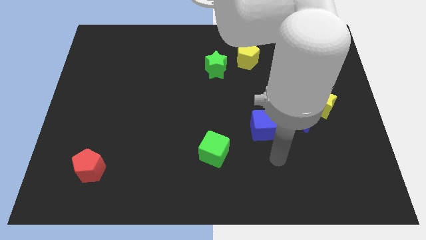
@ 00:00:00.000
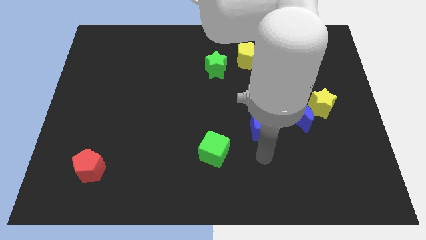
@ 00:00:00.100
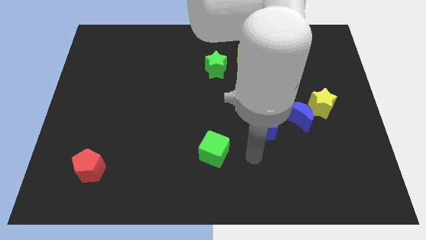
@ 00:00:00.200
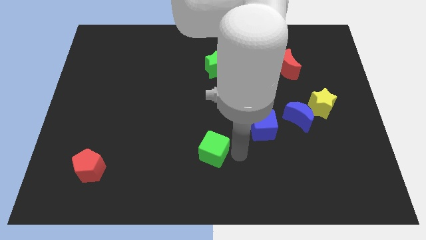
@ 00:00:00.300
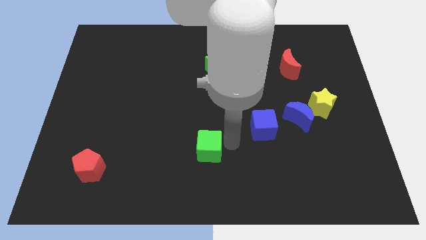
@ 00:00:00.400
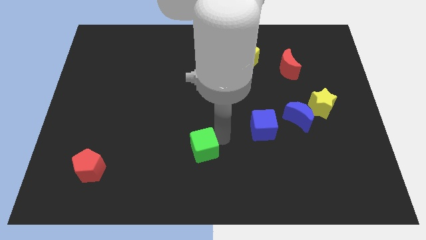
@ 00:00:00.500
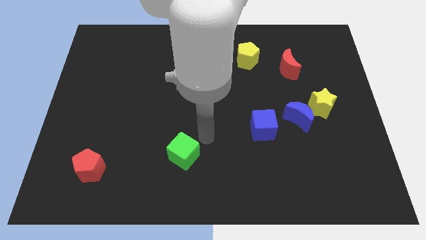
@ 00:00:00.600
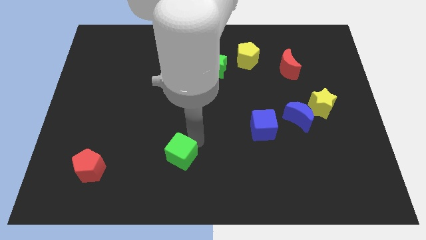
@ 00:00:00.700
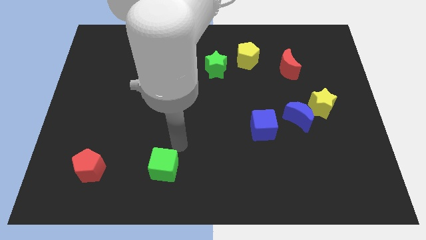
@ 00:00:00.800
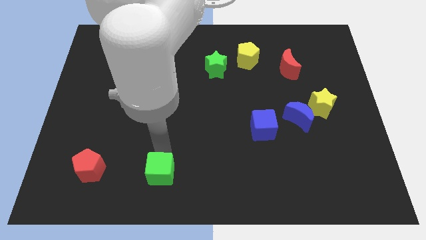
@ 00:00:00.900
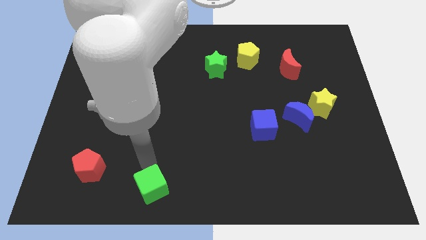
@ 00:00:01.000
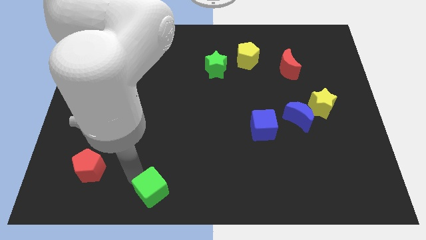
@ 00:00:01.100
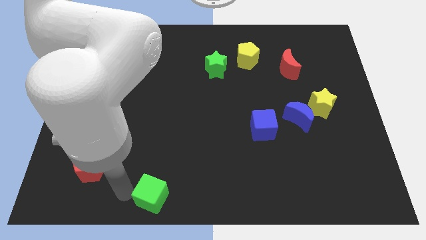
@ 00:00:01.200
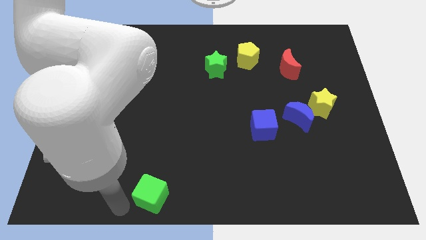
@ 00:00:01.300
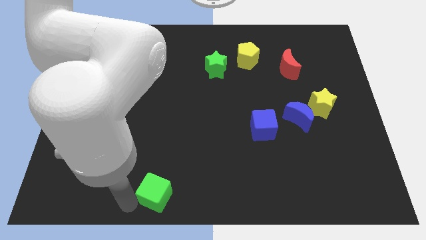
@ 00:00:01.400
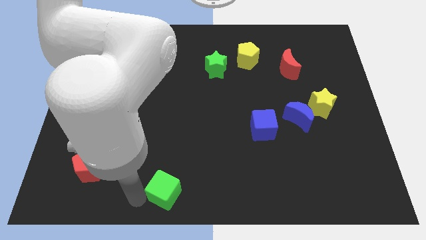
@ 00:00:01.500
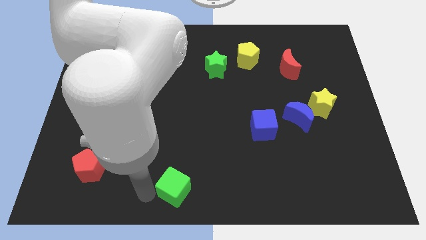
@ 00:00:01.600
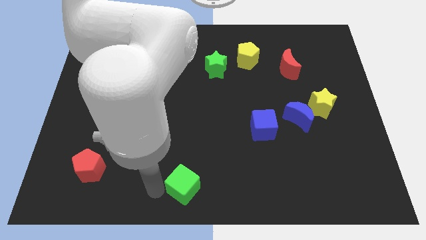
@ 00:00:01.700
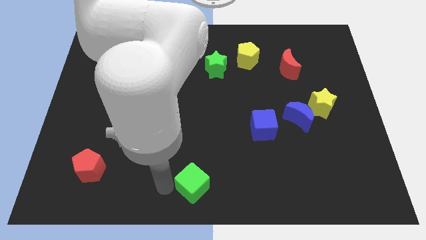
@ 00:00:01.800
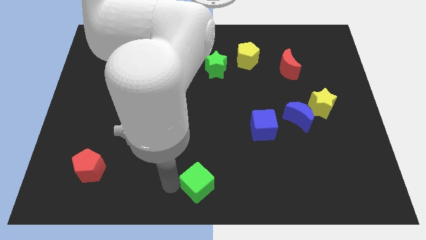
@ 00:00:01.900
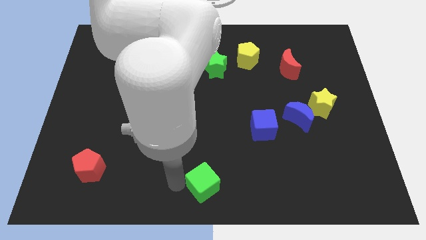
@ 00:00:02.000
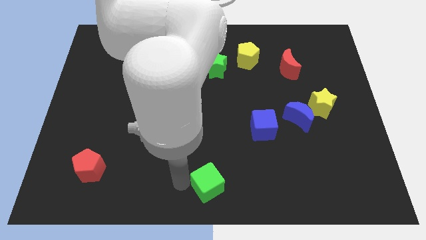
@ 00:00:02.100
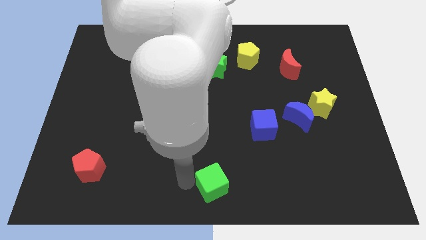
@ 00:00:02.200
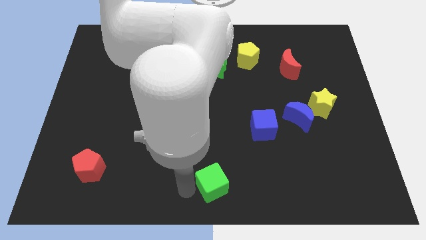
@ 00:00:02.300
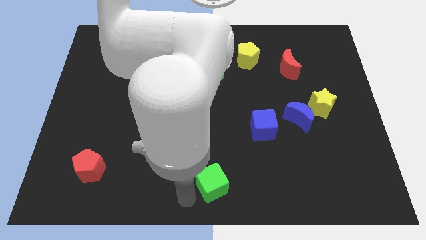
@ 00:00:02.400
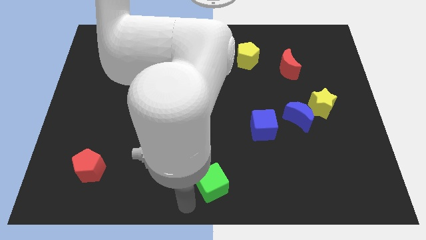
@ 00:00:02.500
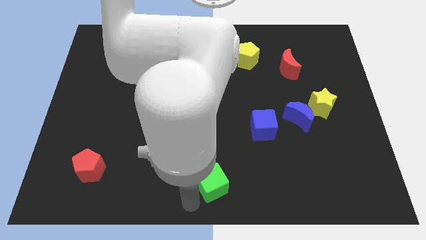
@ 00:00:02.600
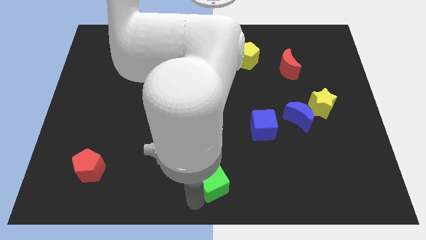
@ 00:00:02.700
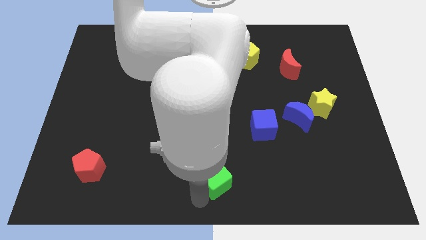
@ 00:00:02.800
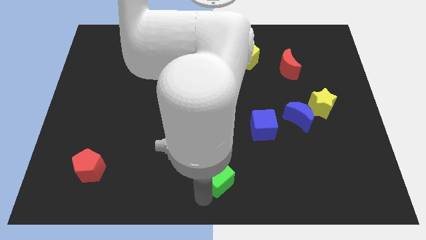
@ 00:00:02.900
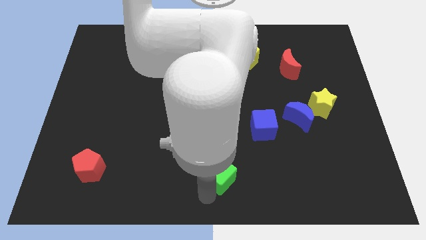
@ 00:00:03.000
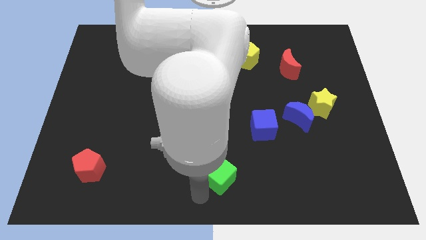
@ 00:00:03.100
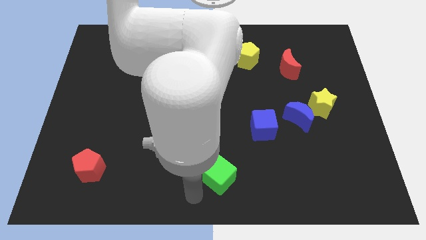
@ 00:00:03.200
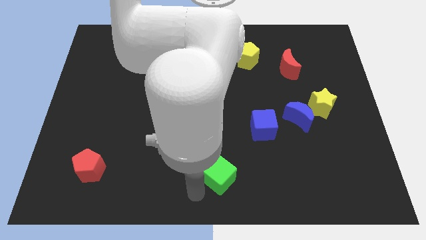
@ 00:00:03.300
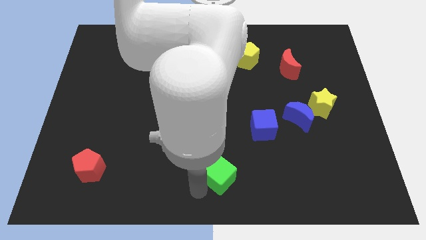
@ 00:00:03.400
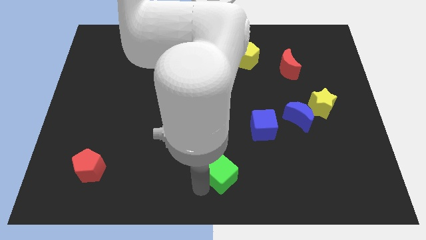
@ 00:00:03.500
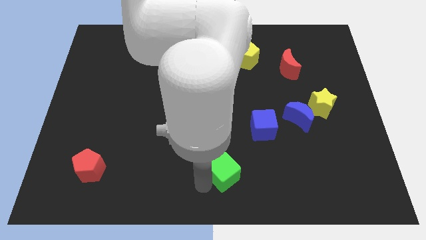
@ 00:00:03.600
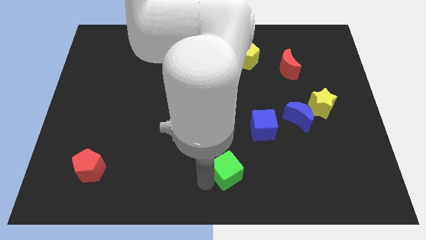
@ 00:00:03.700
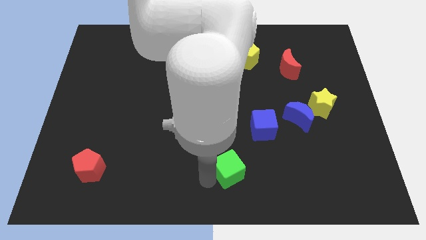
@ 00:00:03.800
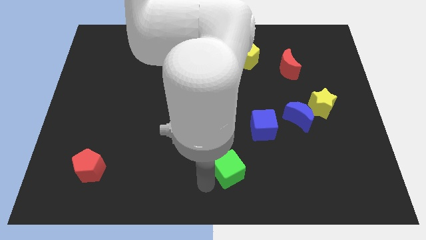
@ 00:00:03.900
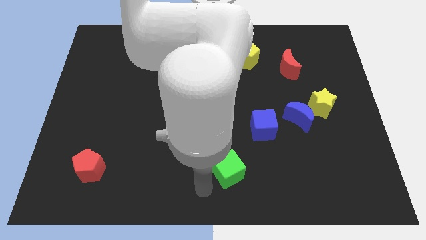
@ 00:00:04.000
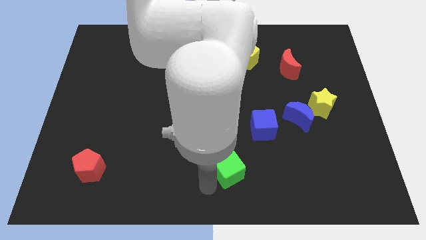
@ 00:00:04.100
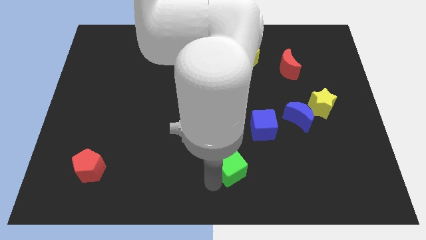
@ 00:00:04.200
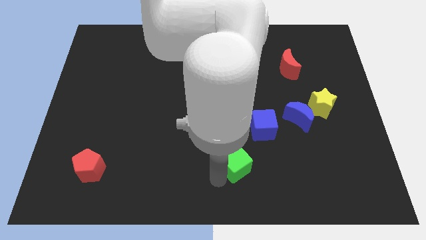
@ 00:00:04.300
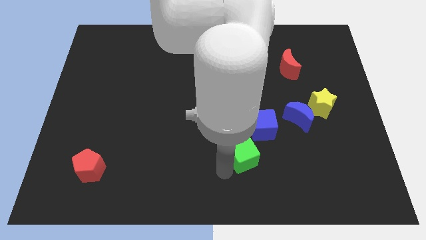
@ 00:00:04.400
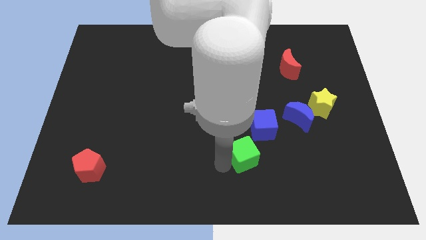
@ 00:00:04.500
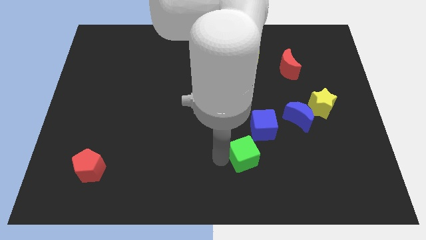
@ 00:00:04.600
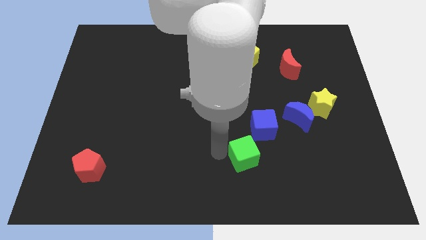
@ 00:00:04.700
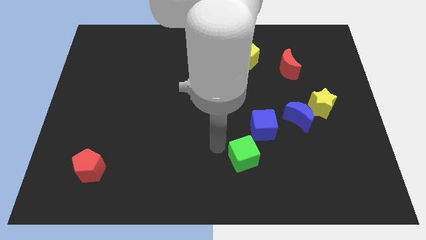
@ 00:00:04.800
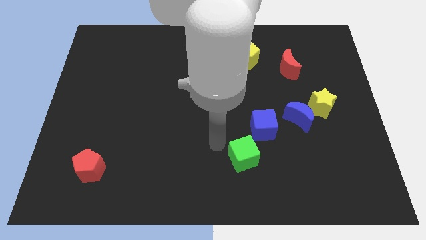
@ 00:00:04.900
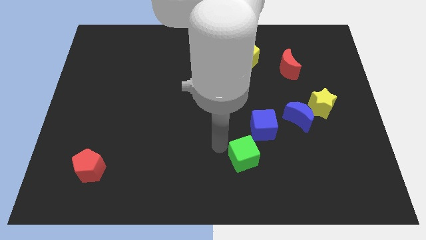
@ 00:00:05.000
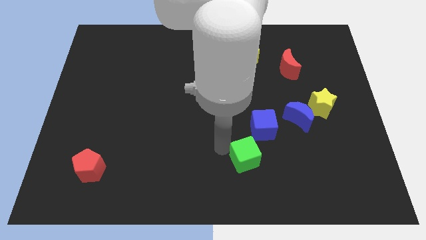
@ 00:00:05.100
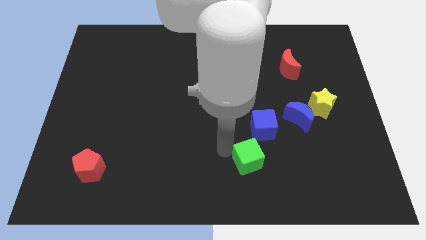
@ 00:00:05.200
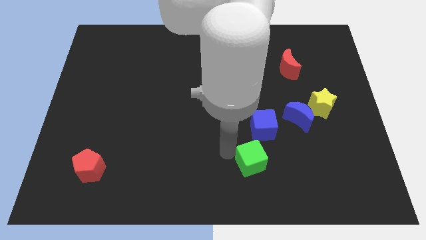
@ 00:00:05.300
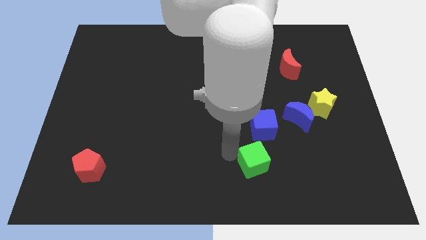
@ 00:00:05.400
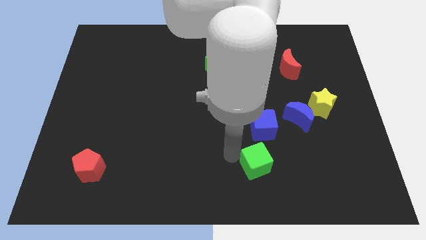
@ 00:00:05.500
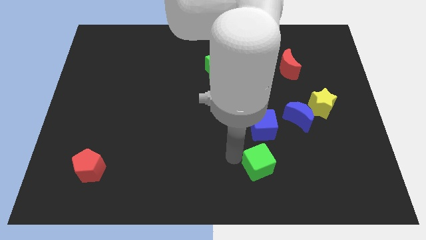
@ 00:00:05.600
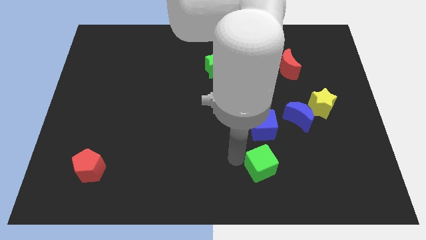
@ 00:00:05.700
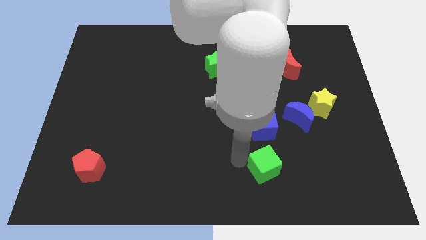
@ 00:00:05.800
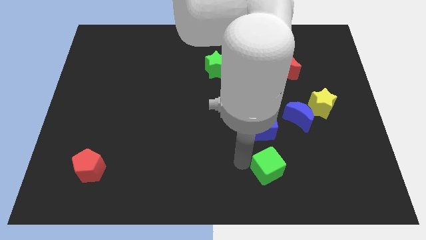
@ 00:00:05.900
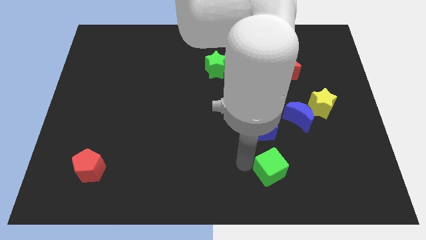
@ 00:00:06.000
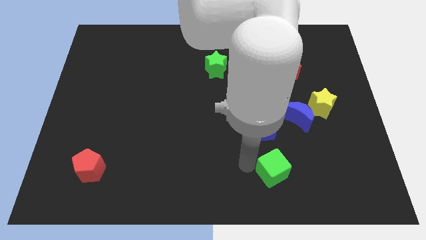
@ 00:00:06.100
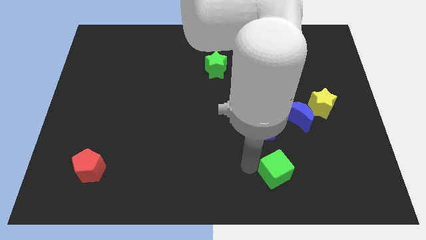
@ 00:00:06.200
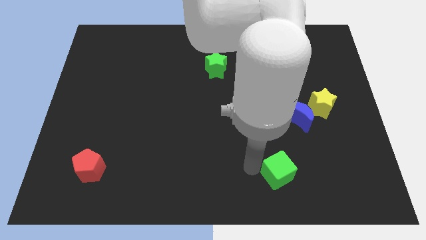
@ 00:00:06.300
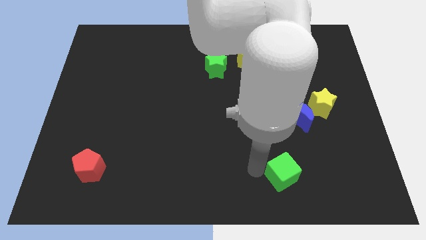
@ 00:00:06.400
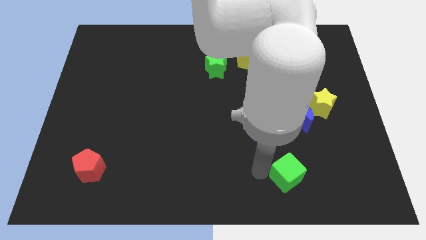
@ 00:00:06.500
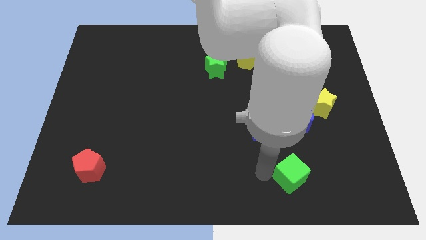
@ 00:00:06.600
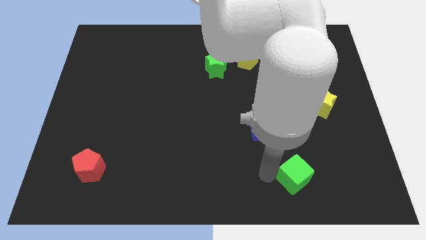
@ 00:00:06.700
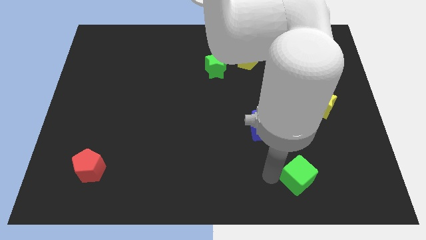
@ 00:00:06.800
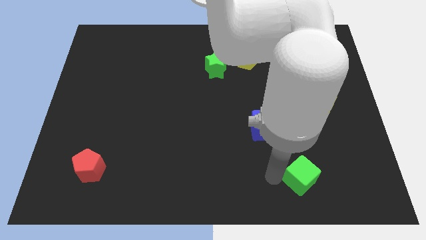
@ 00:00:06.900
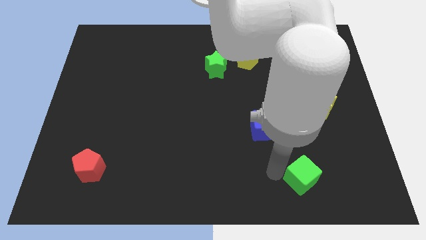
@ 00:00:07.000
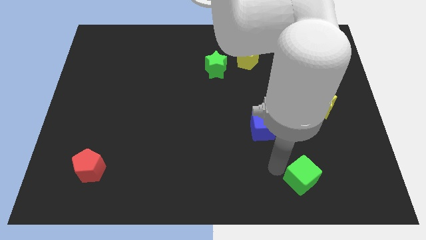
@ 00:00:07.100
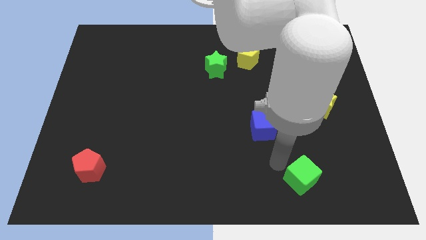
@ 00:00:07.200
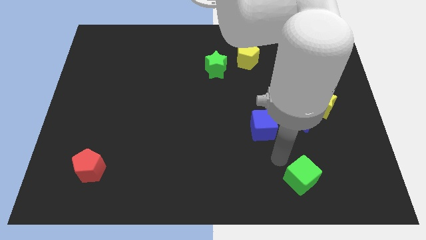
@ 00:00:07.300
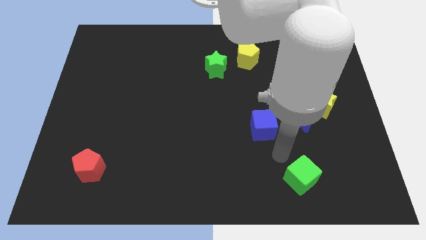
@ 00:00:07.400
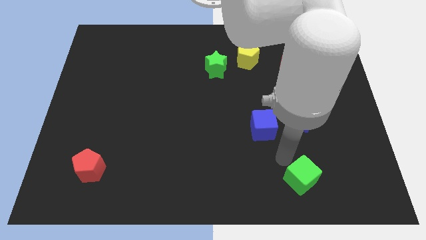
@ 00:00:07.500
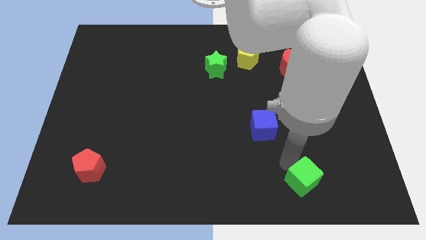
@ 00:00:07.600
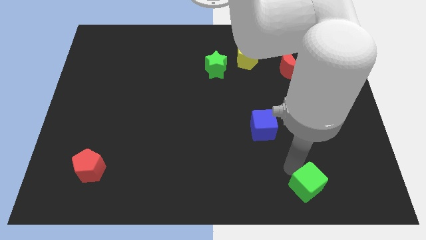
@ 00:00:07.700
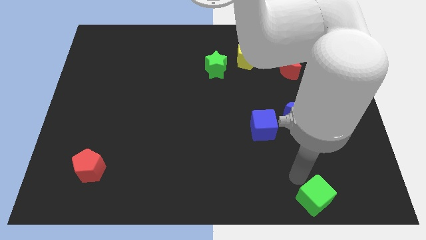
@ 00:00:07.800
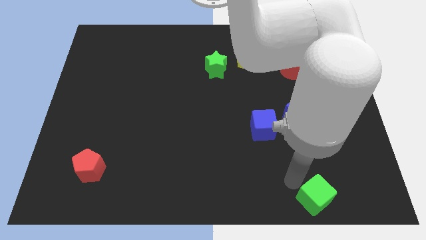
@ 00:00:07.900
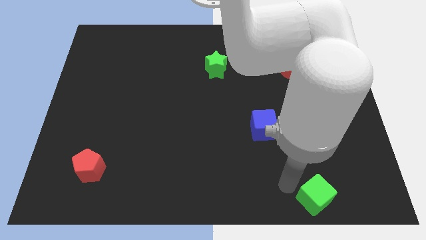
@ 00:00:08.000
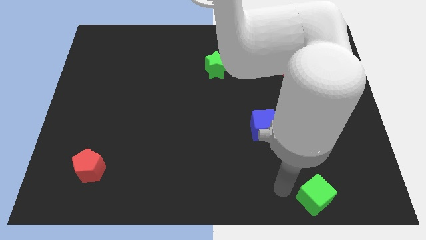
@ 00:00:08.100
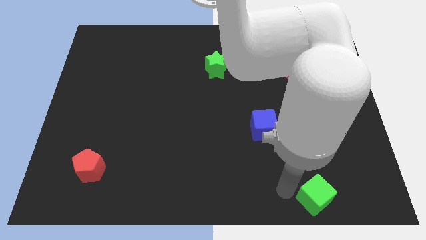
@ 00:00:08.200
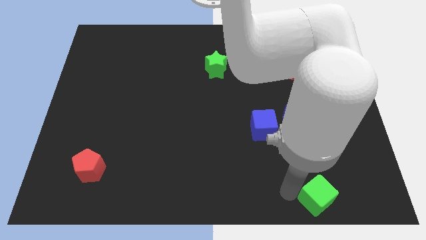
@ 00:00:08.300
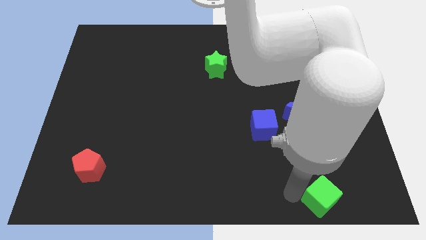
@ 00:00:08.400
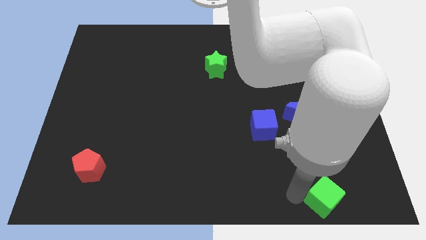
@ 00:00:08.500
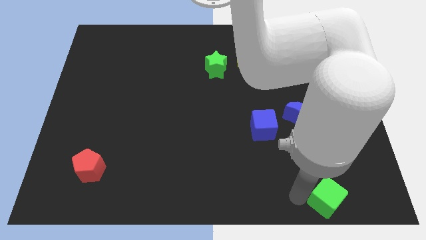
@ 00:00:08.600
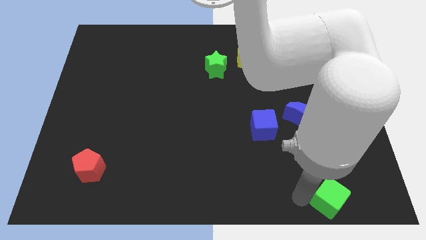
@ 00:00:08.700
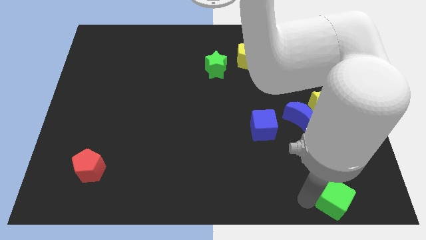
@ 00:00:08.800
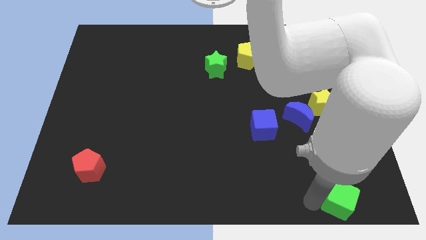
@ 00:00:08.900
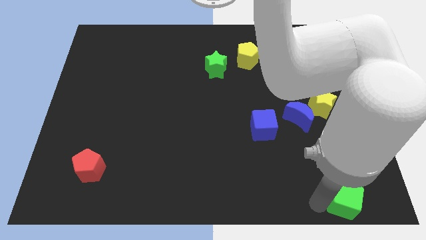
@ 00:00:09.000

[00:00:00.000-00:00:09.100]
move the green cube to the lower right corner
